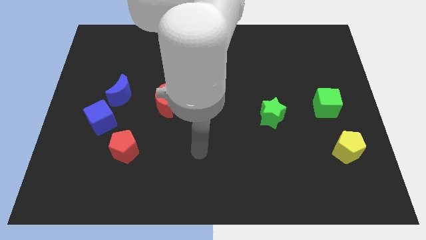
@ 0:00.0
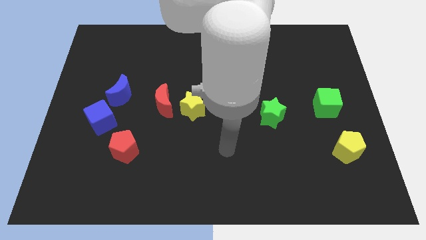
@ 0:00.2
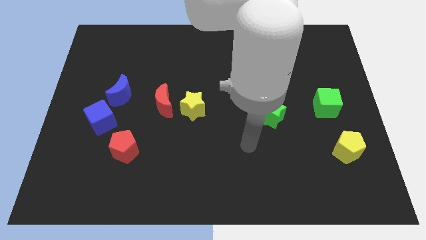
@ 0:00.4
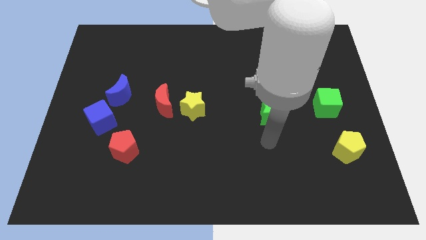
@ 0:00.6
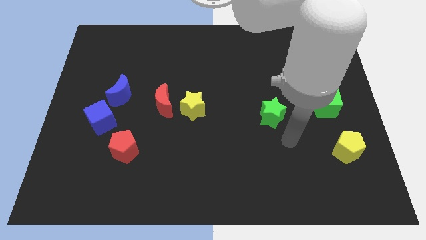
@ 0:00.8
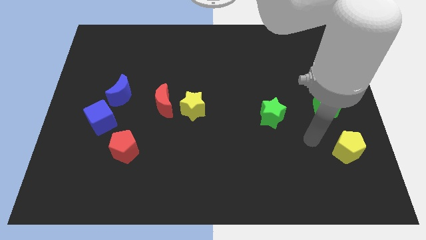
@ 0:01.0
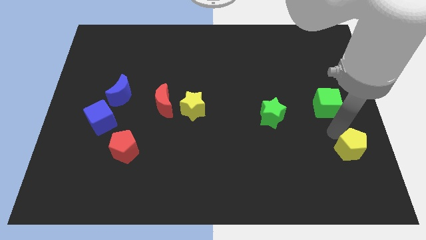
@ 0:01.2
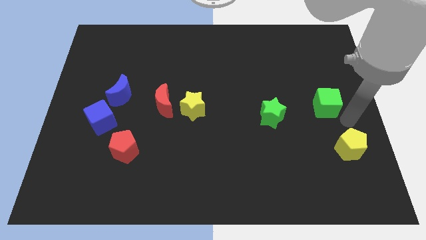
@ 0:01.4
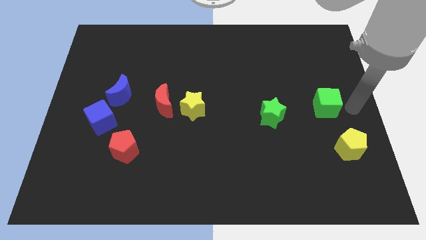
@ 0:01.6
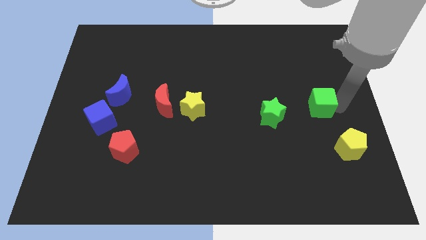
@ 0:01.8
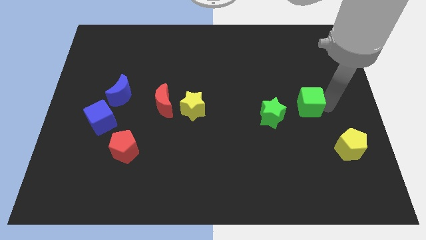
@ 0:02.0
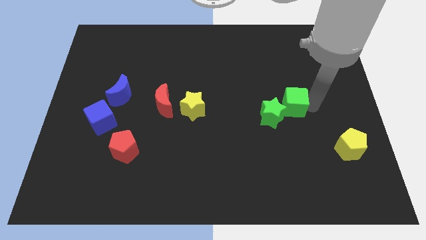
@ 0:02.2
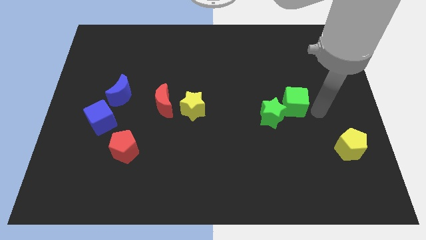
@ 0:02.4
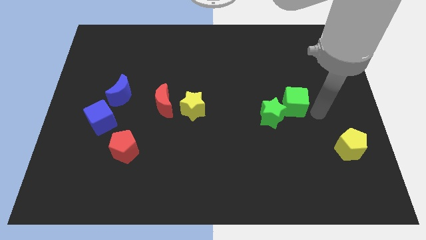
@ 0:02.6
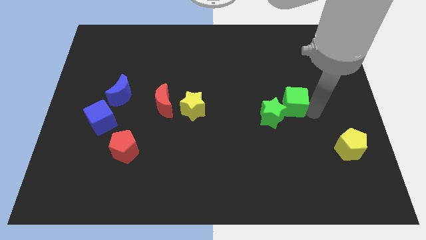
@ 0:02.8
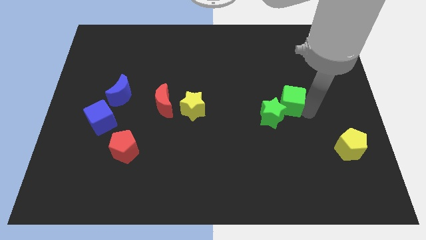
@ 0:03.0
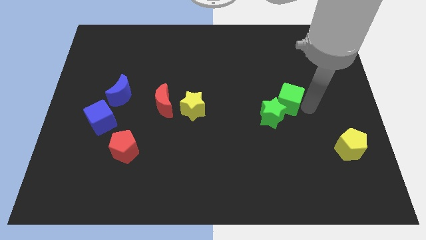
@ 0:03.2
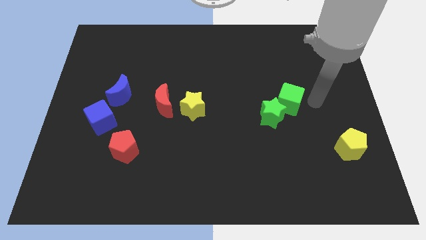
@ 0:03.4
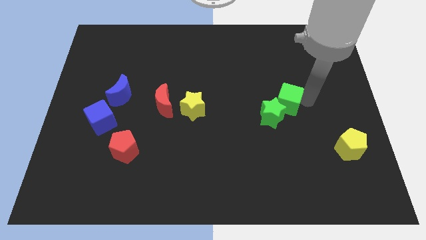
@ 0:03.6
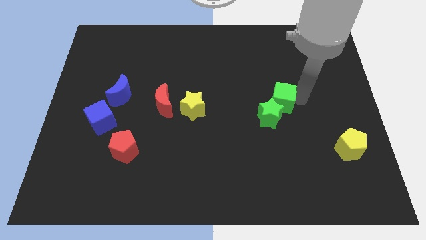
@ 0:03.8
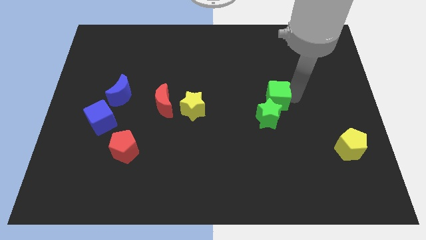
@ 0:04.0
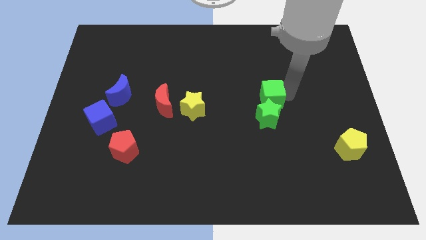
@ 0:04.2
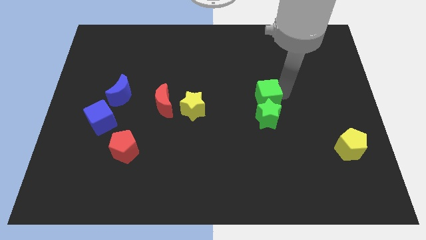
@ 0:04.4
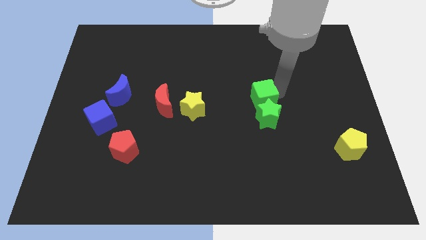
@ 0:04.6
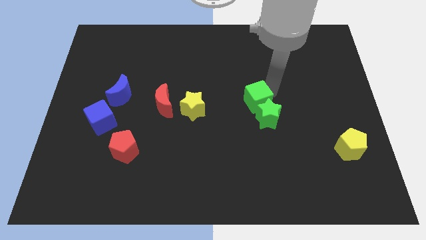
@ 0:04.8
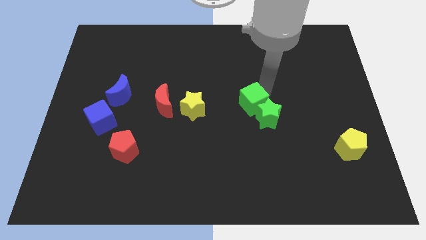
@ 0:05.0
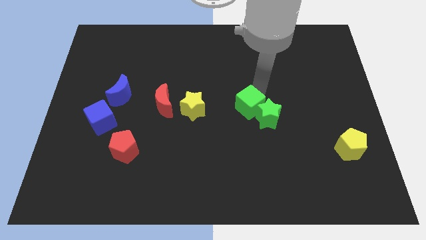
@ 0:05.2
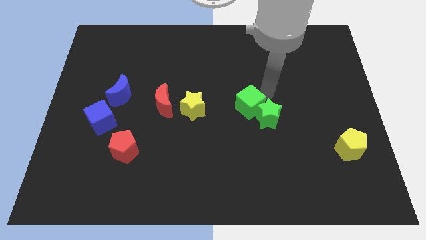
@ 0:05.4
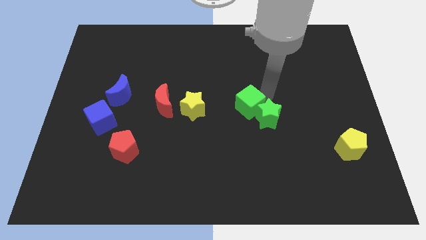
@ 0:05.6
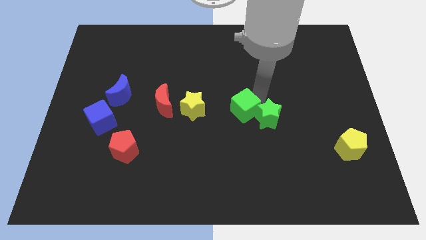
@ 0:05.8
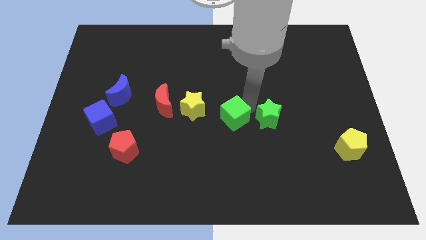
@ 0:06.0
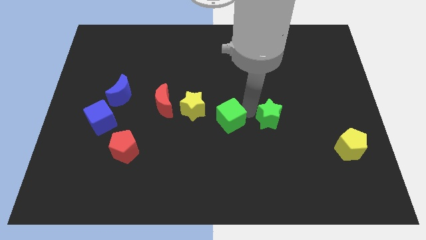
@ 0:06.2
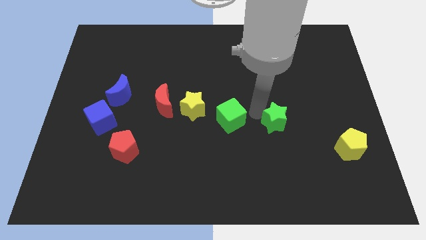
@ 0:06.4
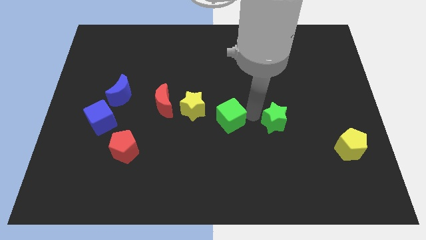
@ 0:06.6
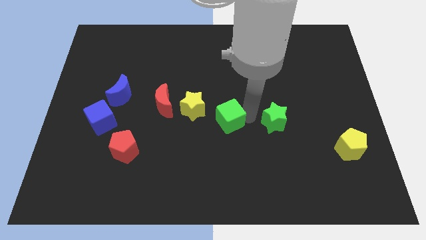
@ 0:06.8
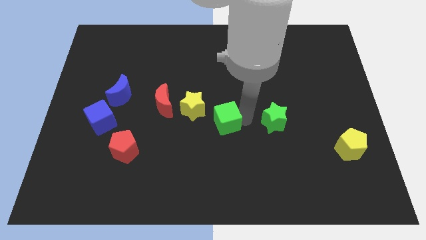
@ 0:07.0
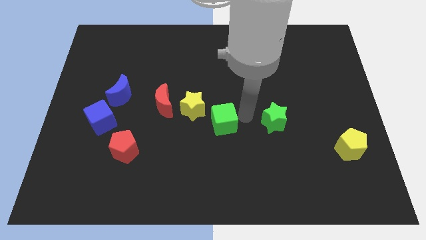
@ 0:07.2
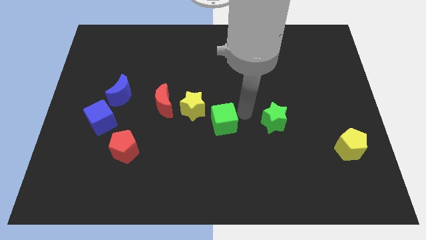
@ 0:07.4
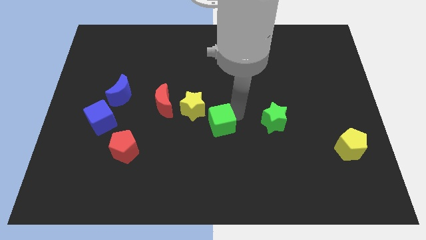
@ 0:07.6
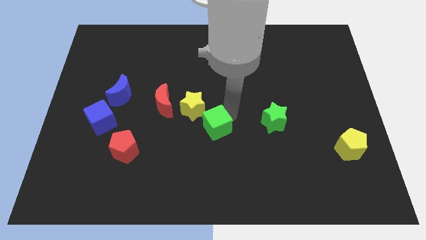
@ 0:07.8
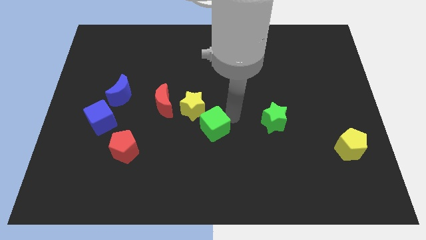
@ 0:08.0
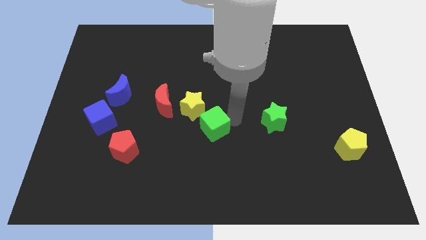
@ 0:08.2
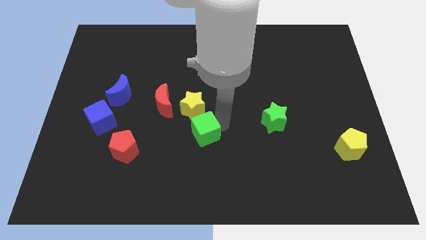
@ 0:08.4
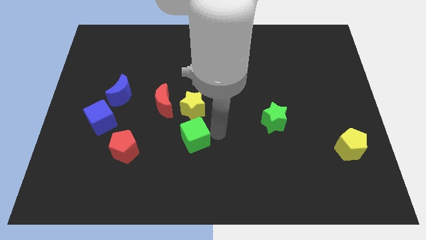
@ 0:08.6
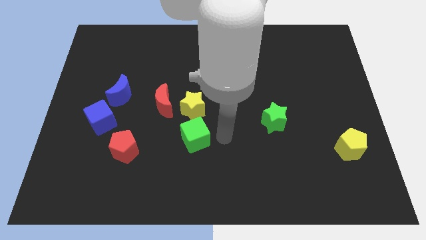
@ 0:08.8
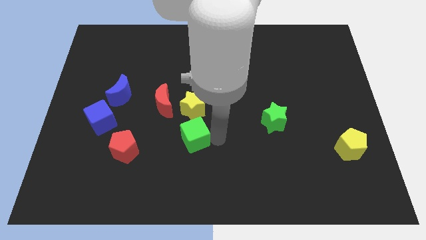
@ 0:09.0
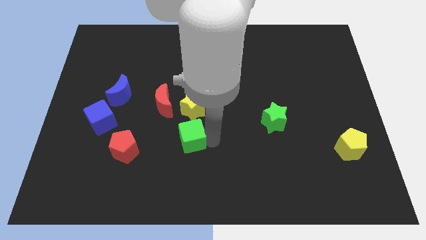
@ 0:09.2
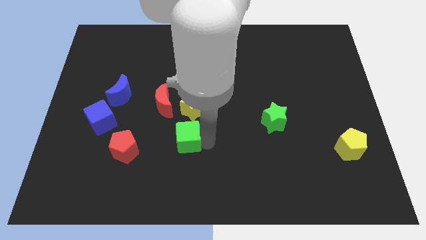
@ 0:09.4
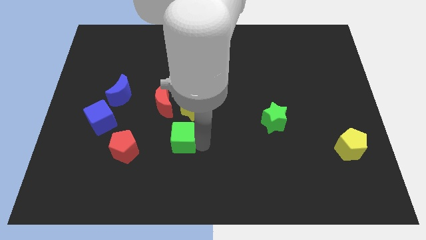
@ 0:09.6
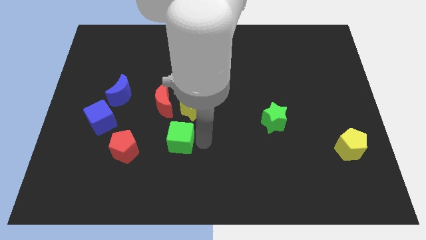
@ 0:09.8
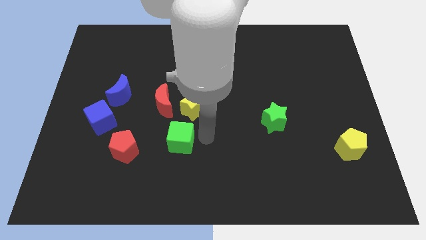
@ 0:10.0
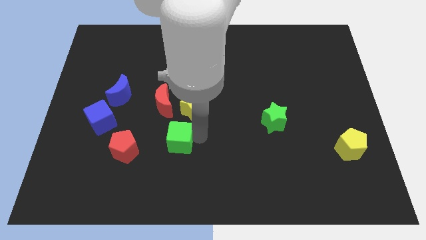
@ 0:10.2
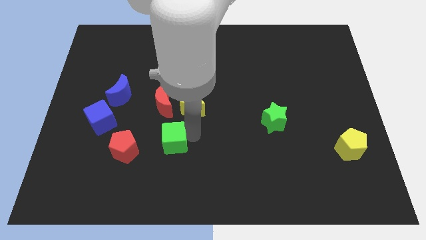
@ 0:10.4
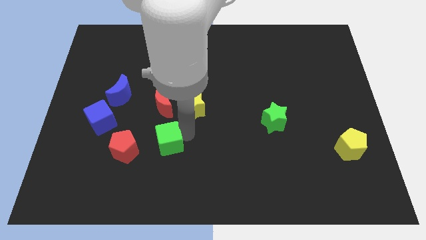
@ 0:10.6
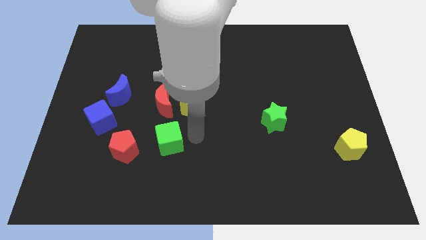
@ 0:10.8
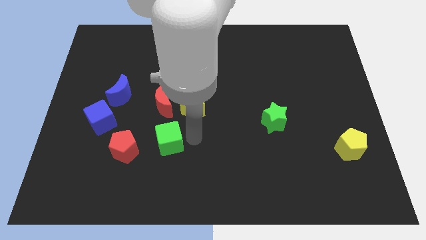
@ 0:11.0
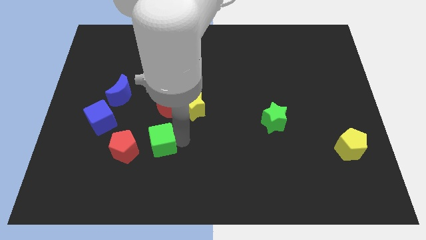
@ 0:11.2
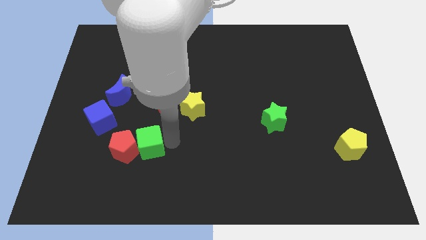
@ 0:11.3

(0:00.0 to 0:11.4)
slide the green cube towards the red pentagon

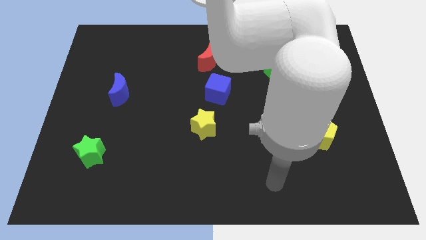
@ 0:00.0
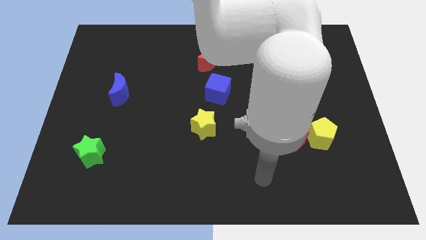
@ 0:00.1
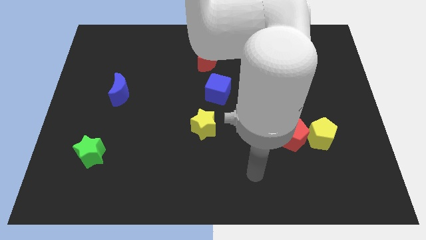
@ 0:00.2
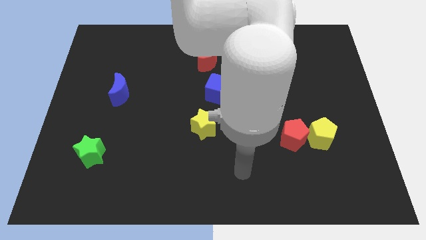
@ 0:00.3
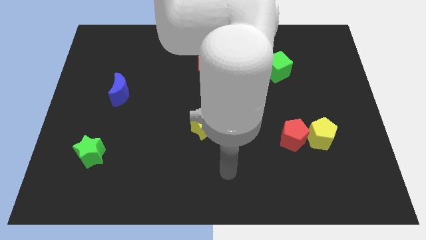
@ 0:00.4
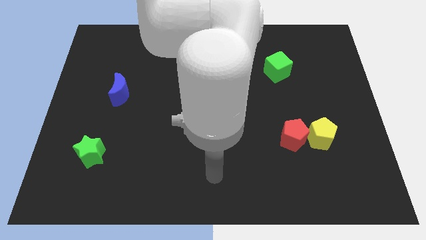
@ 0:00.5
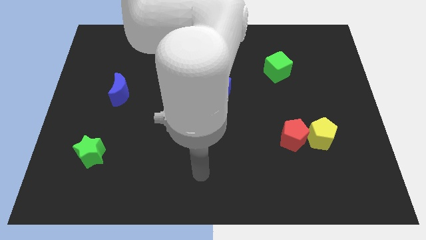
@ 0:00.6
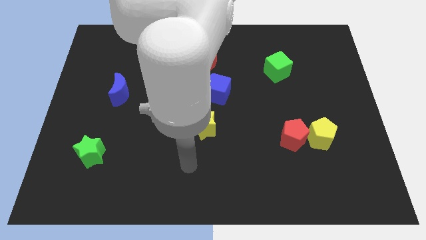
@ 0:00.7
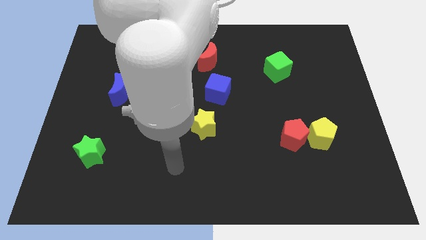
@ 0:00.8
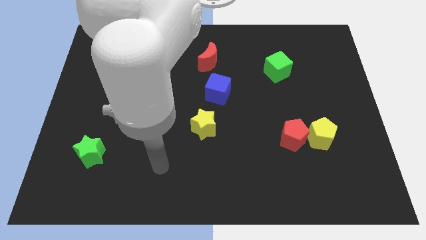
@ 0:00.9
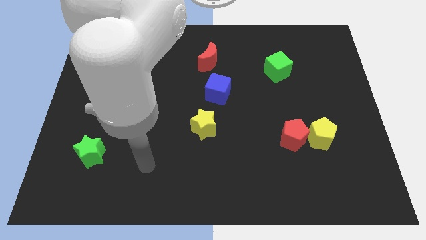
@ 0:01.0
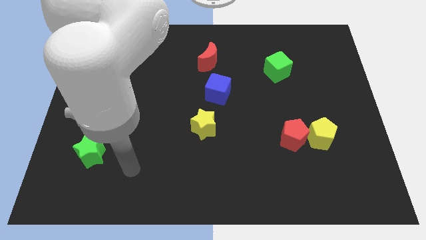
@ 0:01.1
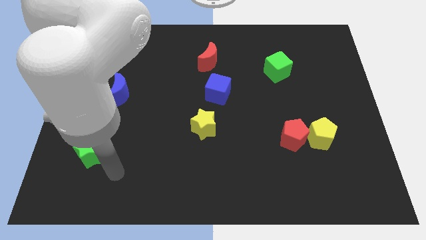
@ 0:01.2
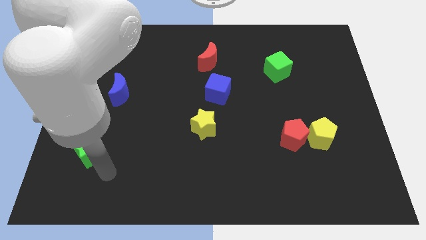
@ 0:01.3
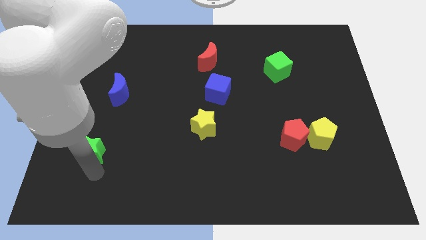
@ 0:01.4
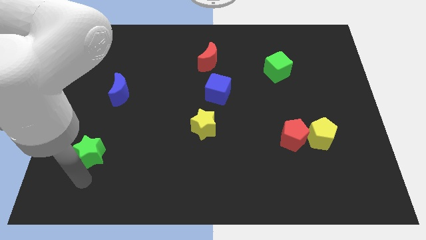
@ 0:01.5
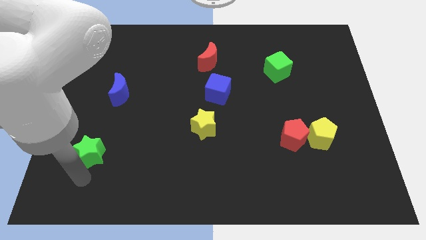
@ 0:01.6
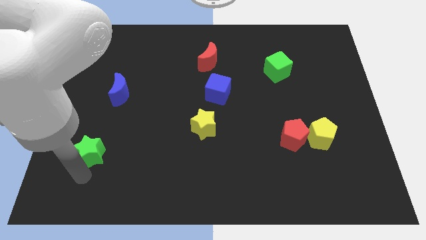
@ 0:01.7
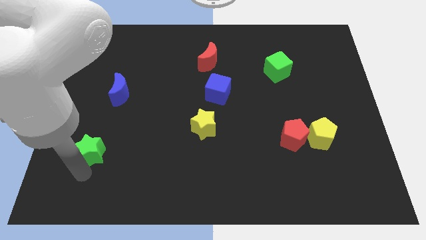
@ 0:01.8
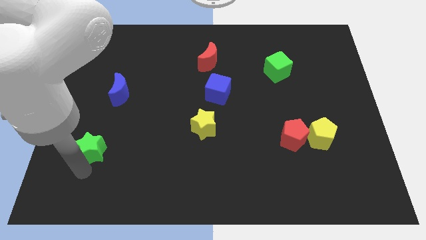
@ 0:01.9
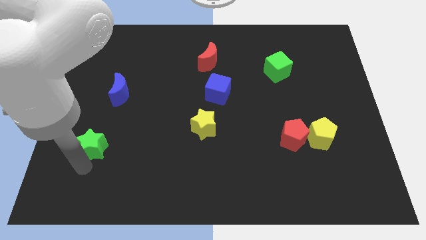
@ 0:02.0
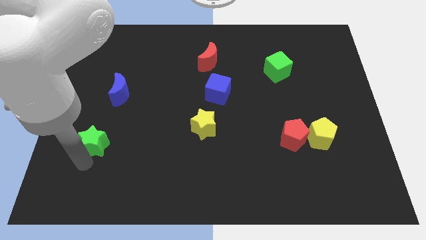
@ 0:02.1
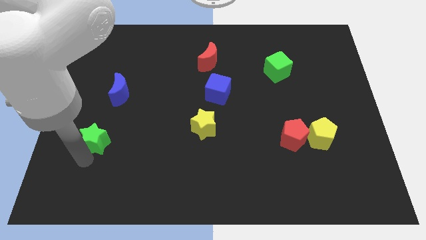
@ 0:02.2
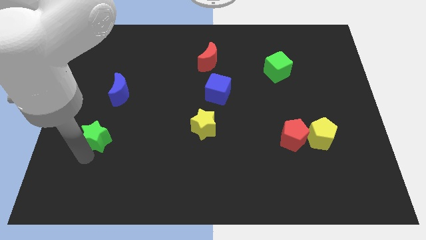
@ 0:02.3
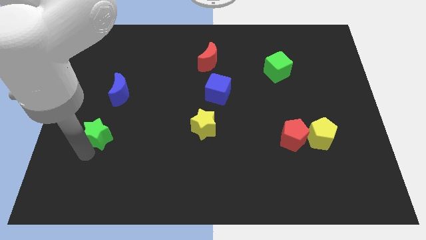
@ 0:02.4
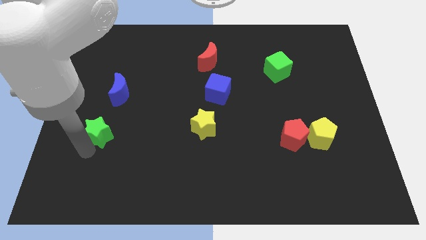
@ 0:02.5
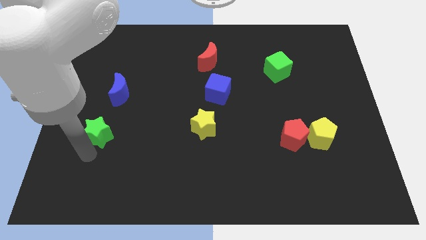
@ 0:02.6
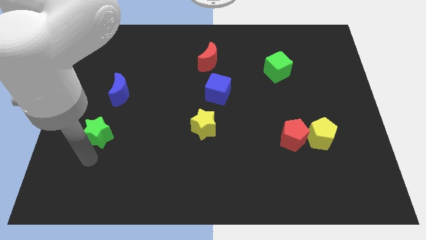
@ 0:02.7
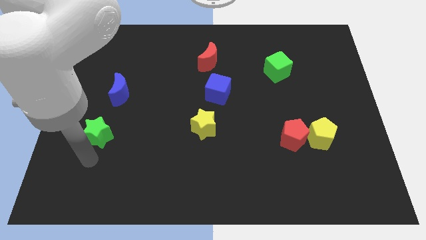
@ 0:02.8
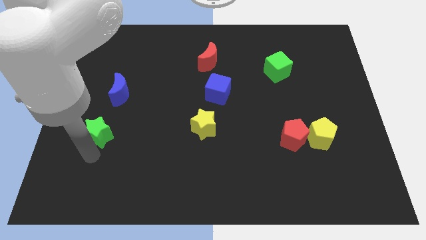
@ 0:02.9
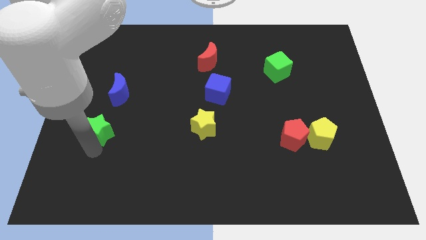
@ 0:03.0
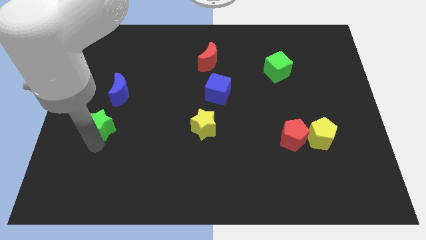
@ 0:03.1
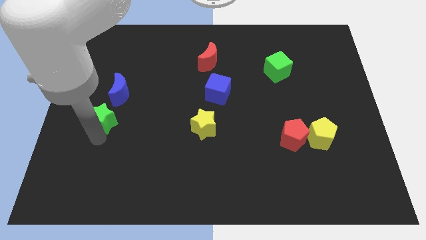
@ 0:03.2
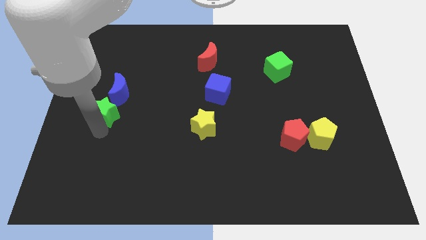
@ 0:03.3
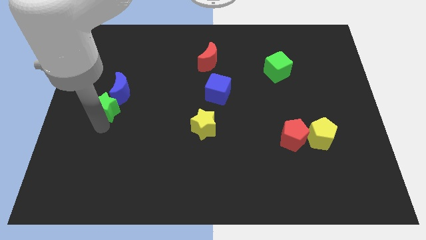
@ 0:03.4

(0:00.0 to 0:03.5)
push the green star to the blue moon
